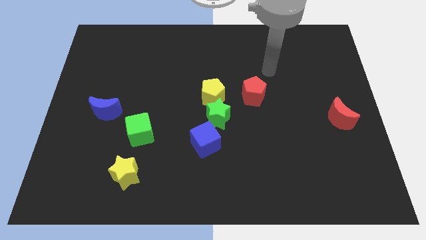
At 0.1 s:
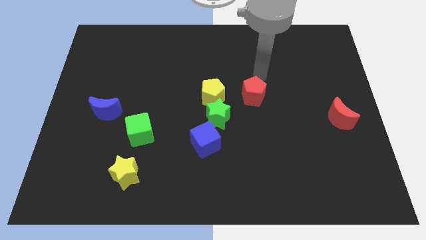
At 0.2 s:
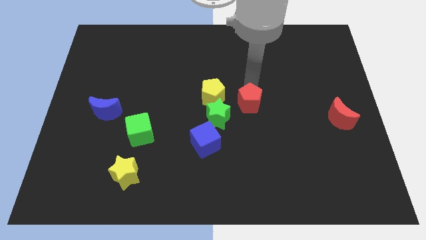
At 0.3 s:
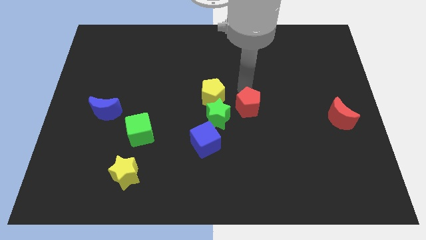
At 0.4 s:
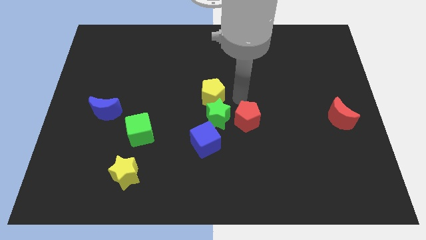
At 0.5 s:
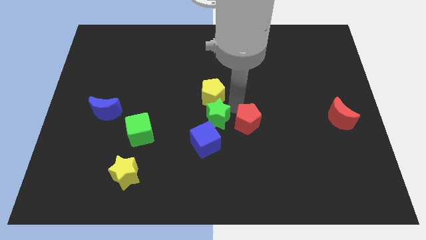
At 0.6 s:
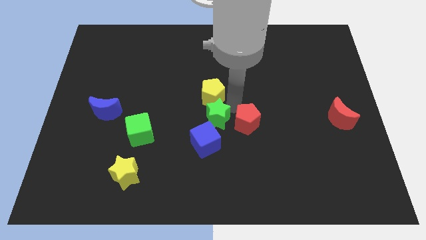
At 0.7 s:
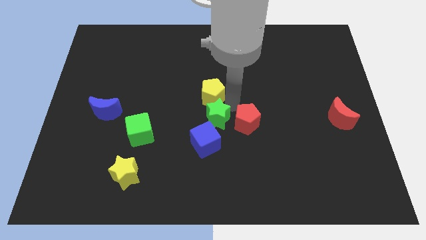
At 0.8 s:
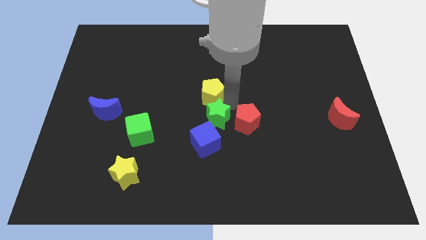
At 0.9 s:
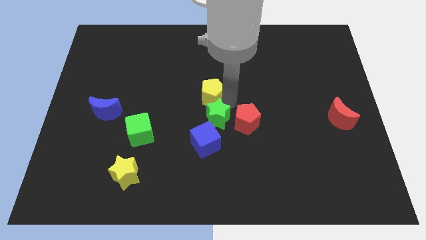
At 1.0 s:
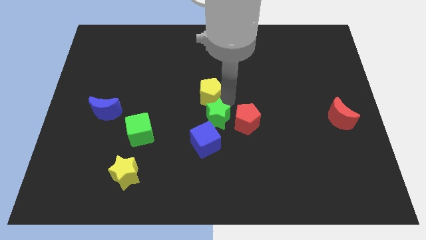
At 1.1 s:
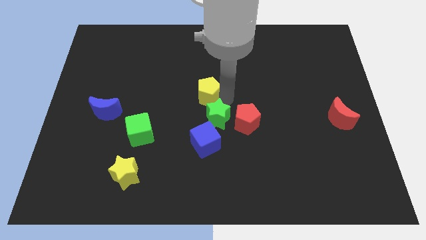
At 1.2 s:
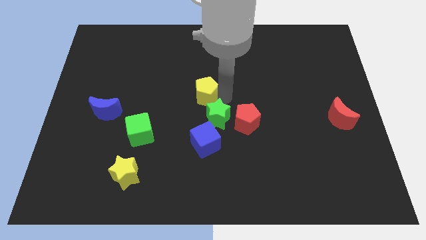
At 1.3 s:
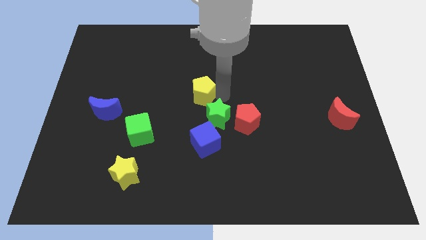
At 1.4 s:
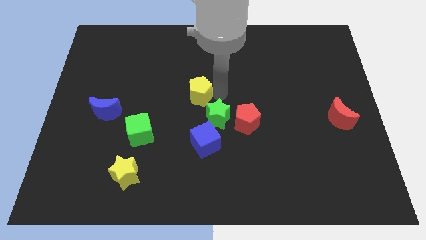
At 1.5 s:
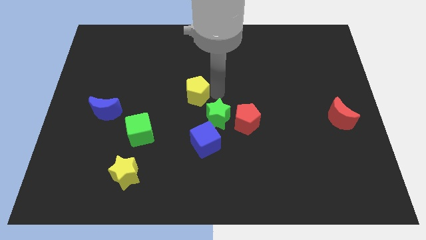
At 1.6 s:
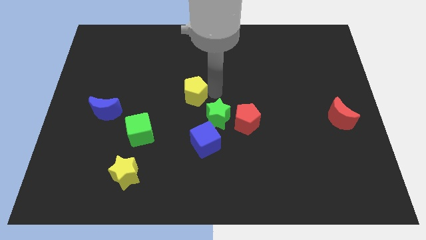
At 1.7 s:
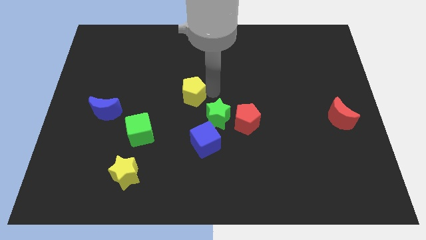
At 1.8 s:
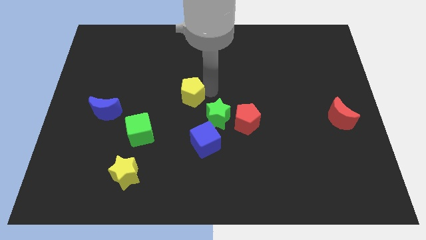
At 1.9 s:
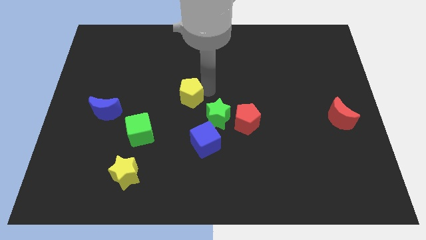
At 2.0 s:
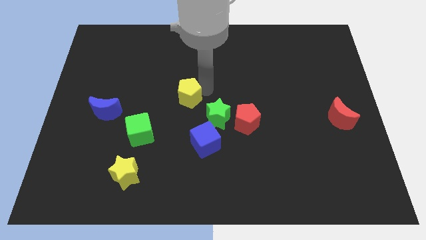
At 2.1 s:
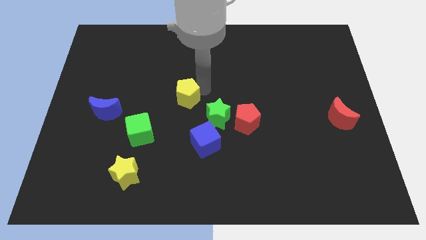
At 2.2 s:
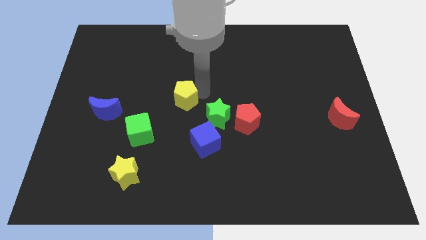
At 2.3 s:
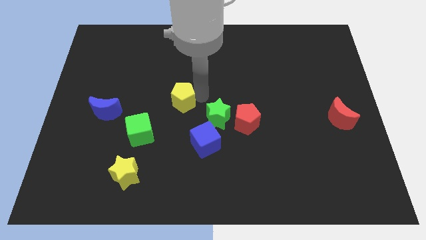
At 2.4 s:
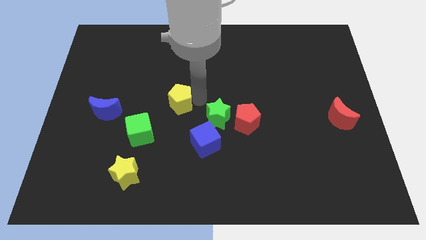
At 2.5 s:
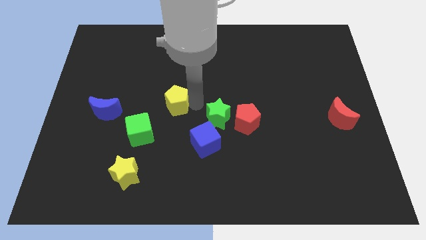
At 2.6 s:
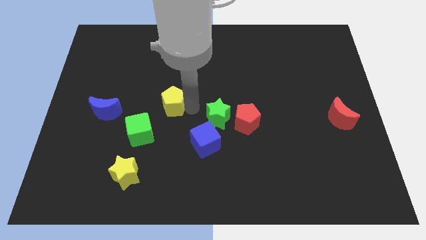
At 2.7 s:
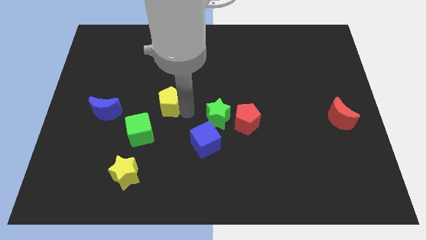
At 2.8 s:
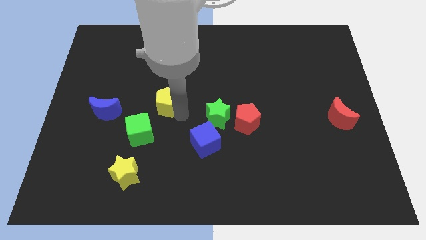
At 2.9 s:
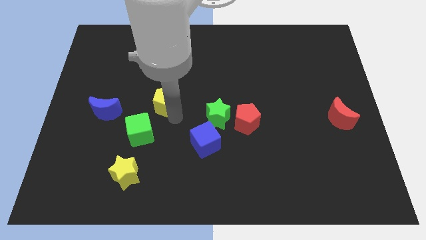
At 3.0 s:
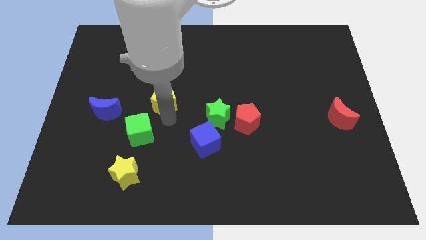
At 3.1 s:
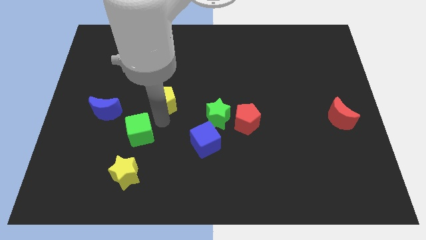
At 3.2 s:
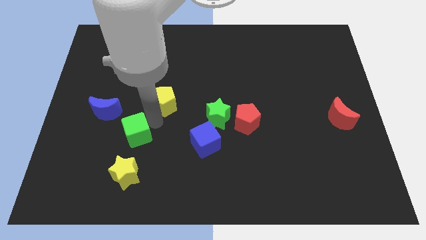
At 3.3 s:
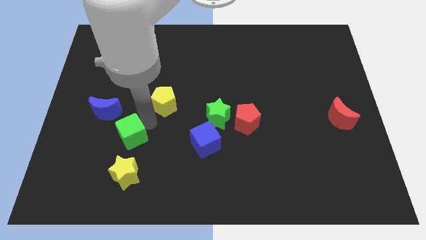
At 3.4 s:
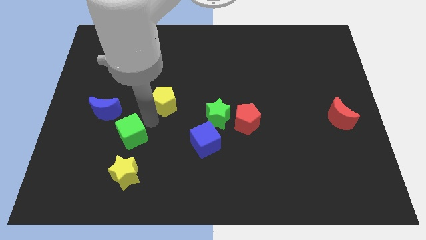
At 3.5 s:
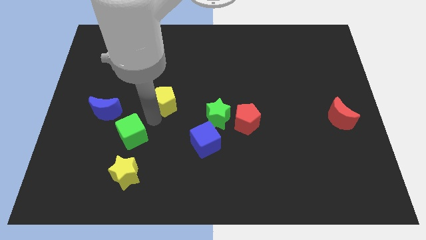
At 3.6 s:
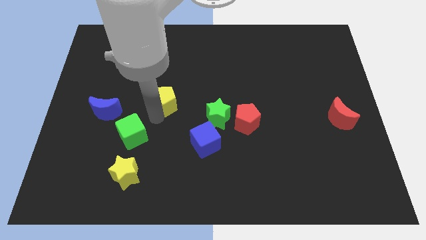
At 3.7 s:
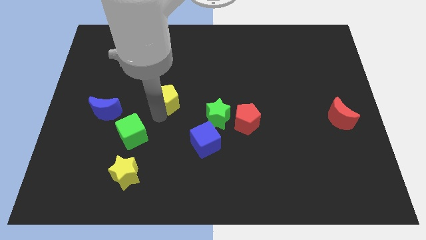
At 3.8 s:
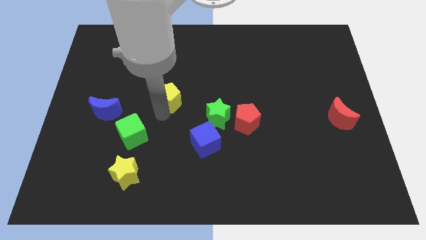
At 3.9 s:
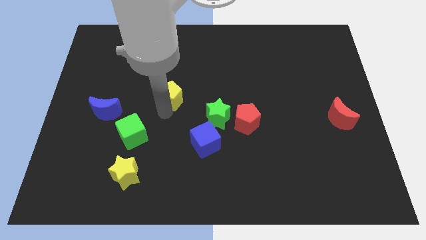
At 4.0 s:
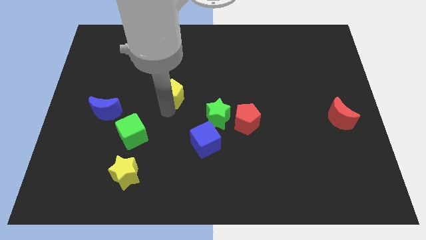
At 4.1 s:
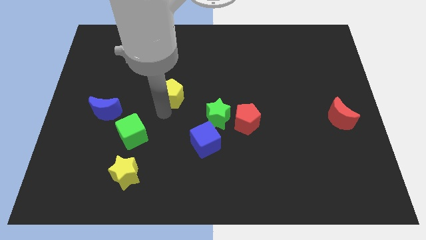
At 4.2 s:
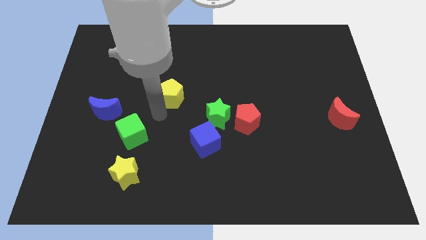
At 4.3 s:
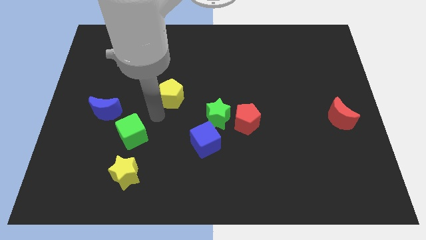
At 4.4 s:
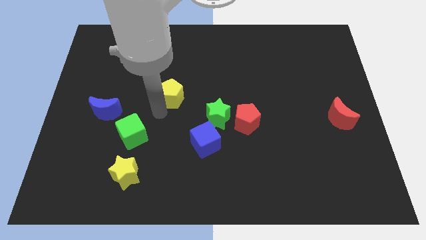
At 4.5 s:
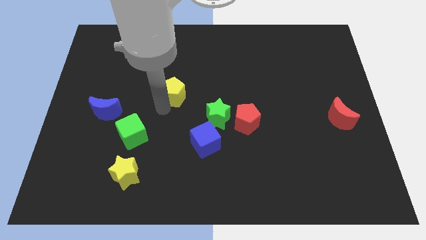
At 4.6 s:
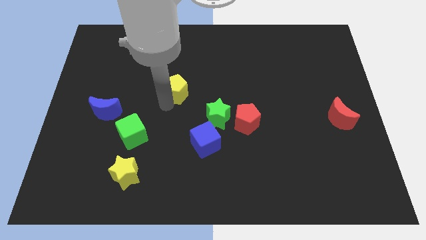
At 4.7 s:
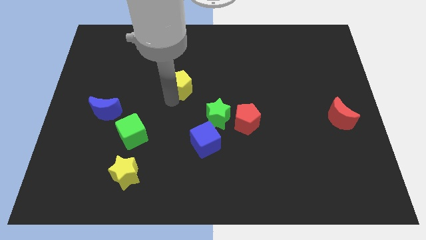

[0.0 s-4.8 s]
slide the yellow pentagon up and then left a bit

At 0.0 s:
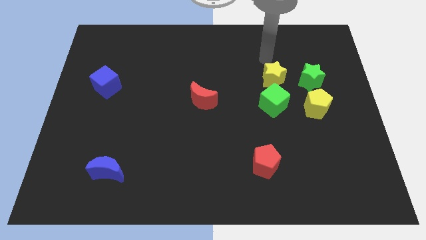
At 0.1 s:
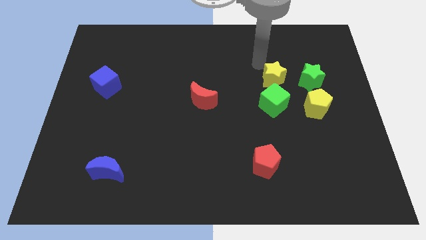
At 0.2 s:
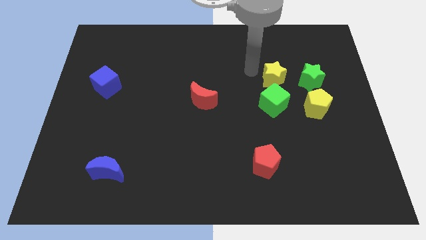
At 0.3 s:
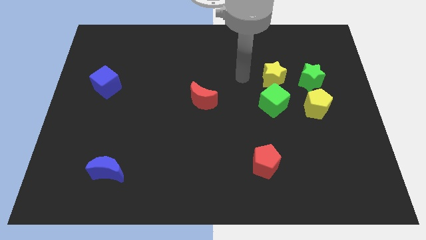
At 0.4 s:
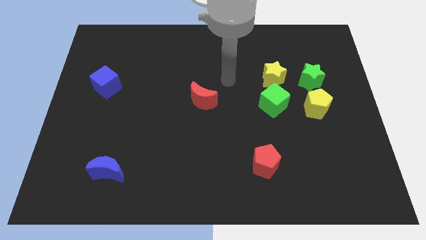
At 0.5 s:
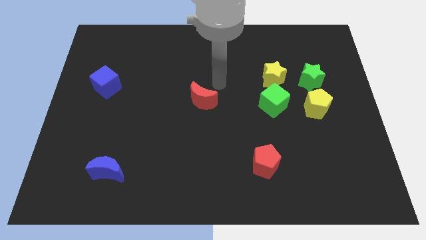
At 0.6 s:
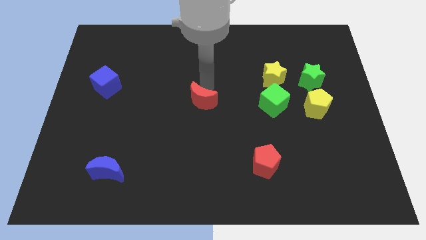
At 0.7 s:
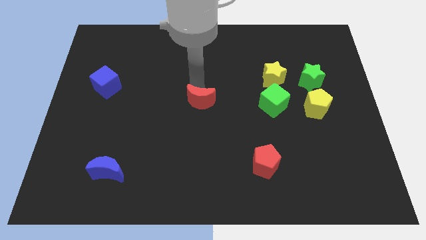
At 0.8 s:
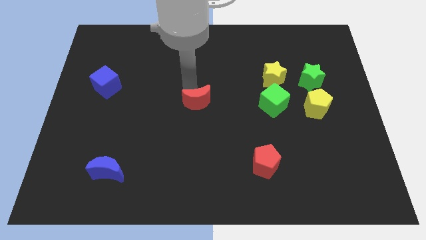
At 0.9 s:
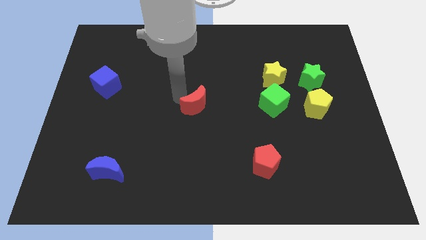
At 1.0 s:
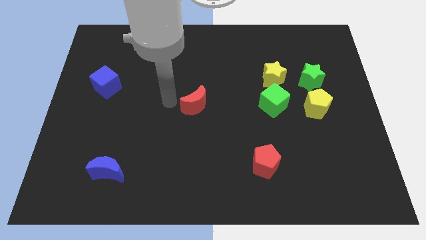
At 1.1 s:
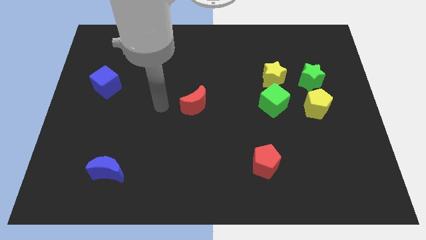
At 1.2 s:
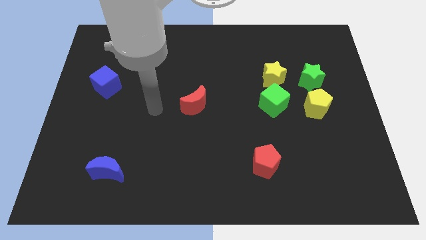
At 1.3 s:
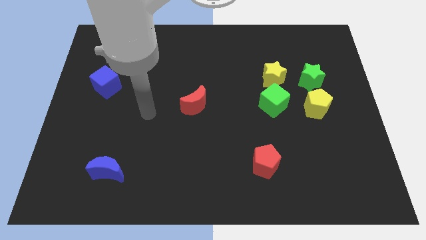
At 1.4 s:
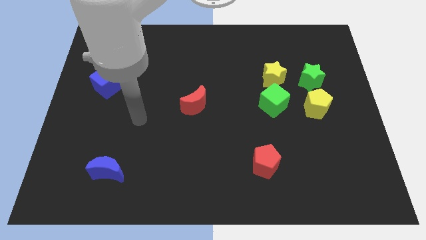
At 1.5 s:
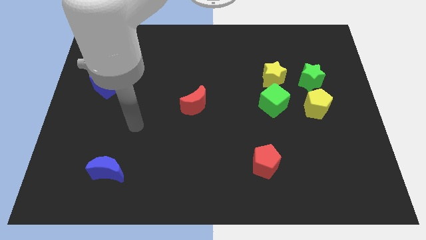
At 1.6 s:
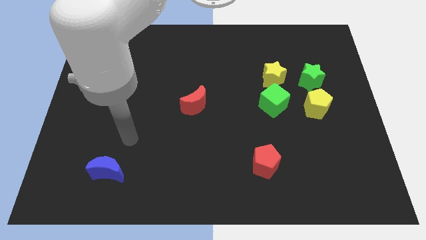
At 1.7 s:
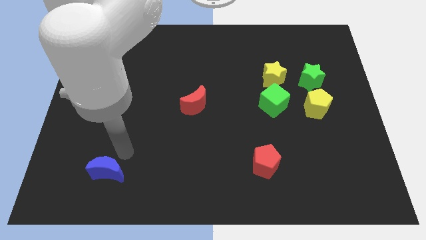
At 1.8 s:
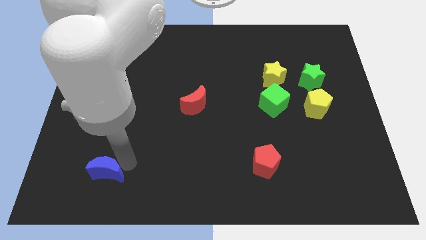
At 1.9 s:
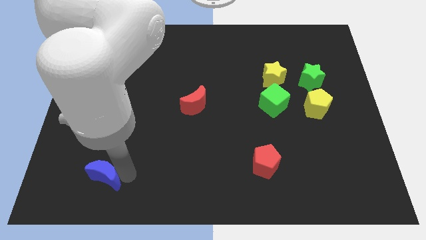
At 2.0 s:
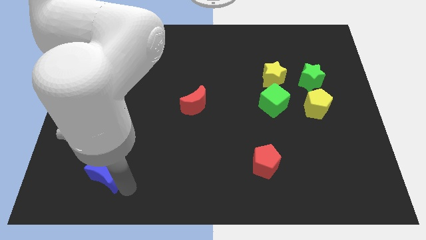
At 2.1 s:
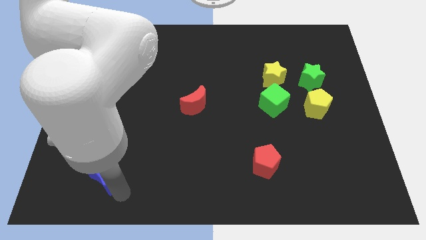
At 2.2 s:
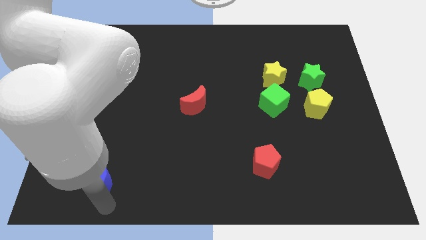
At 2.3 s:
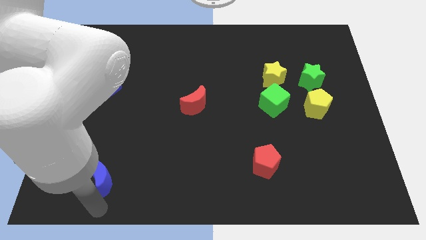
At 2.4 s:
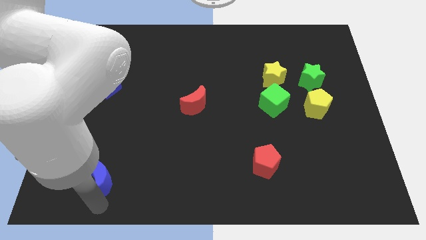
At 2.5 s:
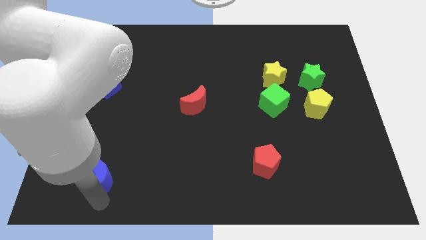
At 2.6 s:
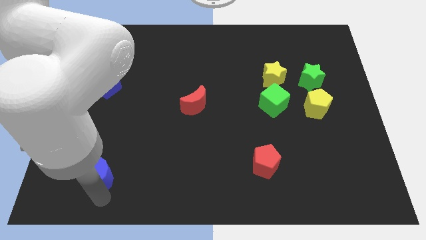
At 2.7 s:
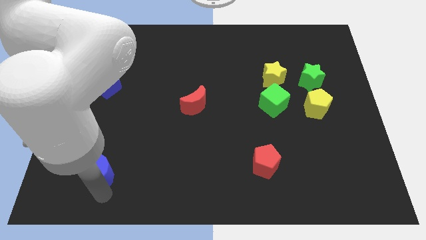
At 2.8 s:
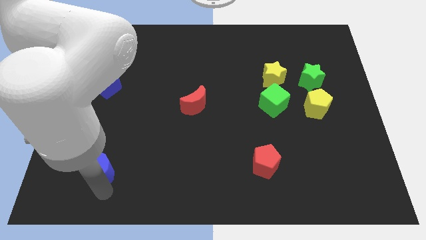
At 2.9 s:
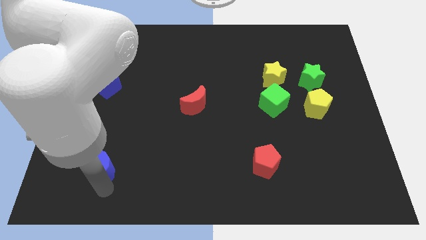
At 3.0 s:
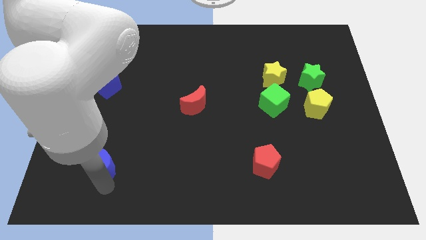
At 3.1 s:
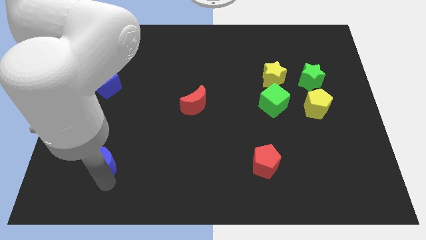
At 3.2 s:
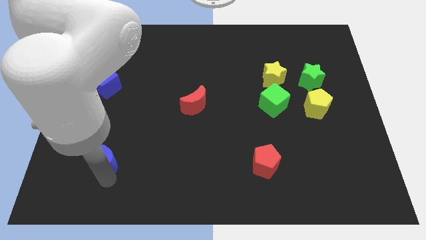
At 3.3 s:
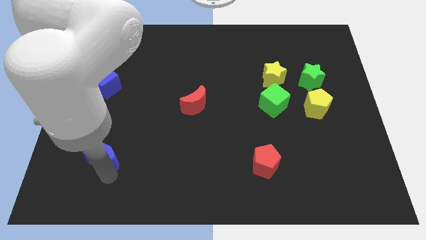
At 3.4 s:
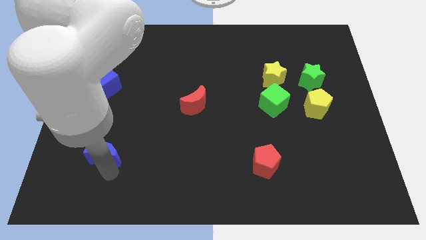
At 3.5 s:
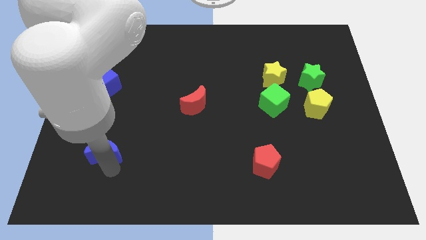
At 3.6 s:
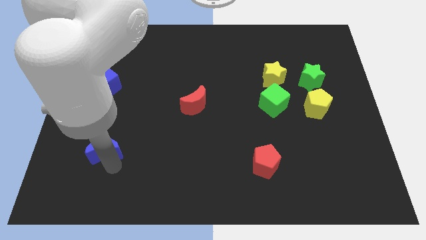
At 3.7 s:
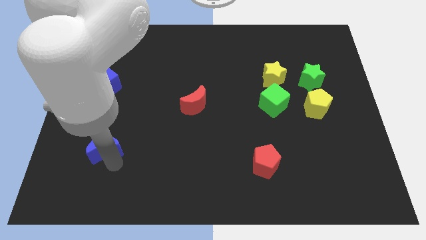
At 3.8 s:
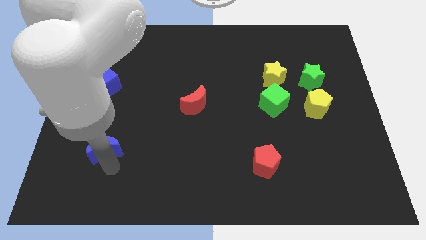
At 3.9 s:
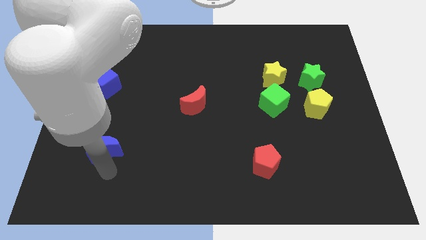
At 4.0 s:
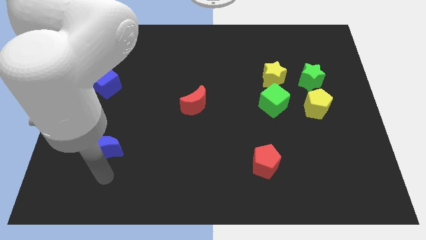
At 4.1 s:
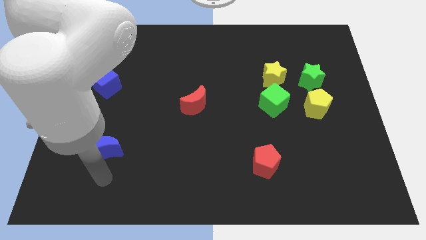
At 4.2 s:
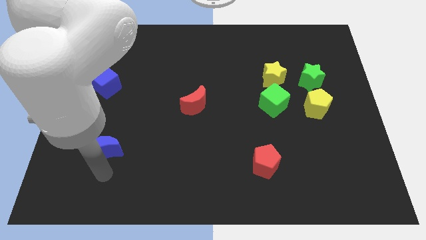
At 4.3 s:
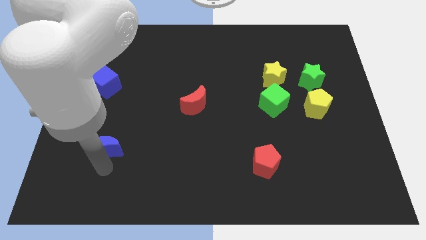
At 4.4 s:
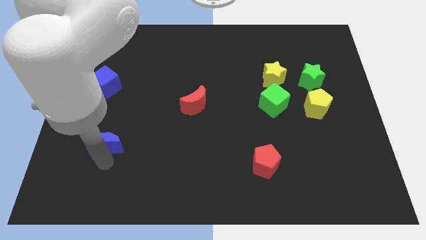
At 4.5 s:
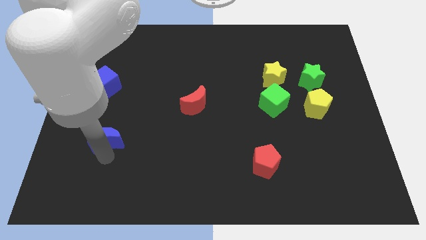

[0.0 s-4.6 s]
slide the blue moon upwards a bit
